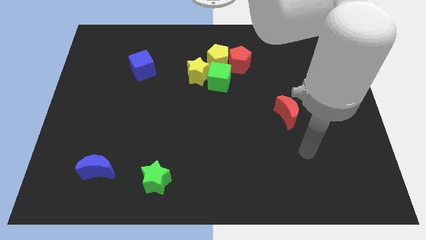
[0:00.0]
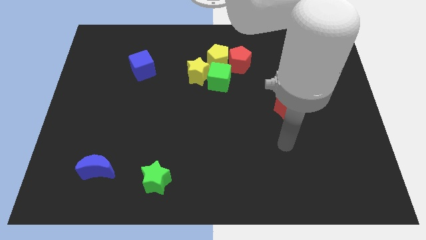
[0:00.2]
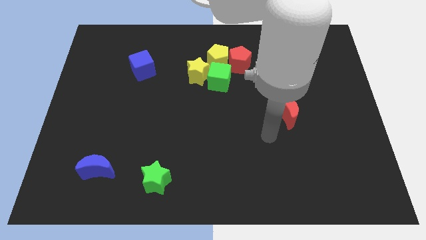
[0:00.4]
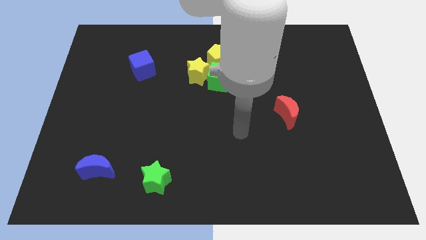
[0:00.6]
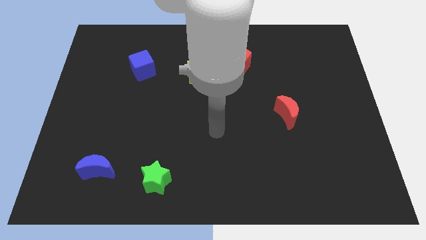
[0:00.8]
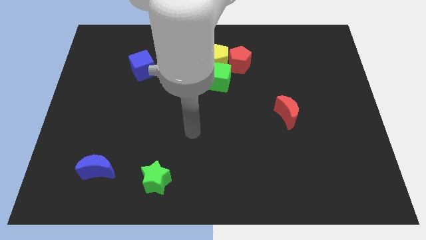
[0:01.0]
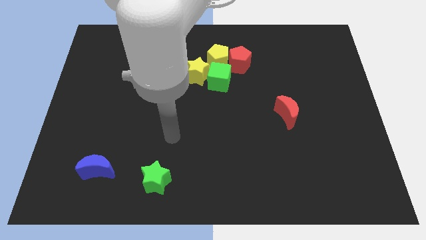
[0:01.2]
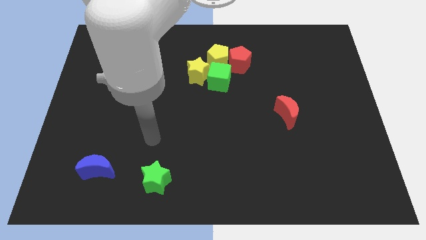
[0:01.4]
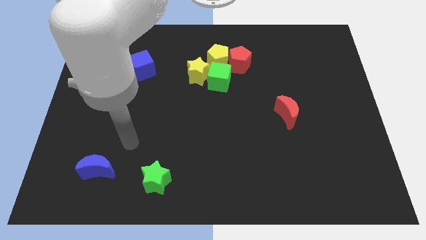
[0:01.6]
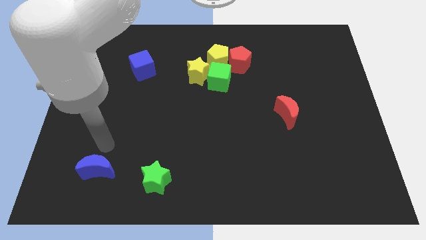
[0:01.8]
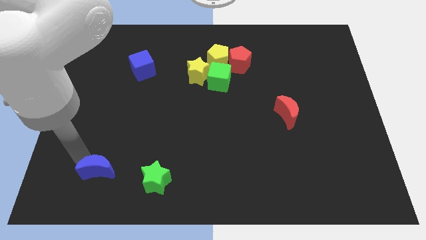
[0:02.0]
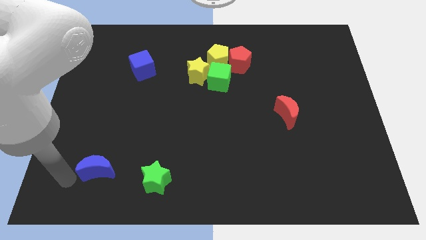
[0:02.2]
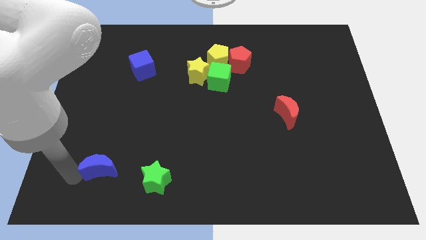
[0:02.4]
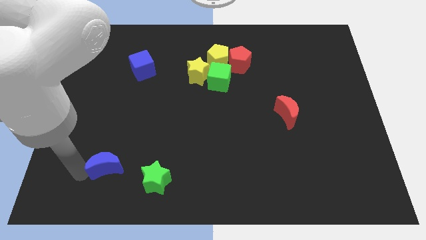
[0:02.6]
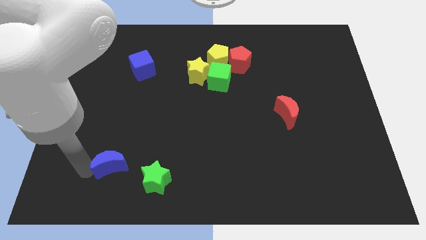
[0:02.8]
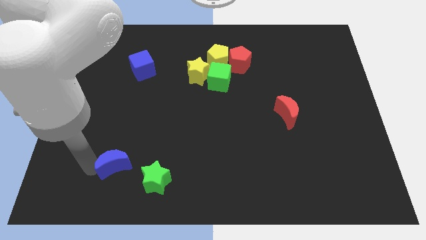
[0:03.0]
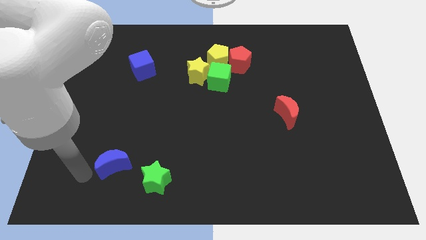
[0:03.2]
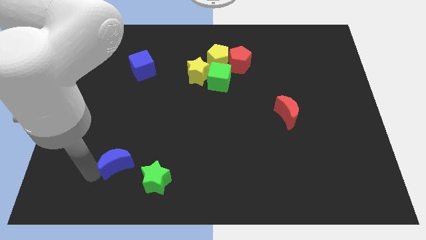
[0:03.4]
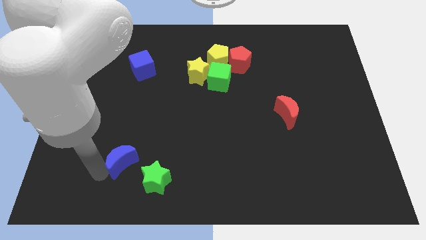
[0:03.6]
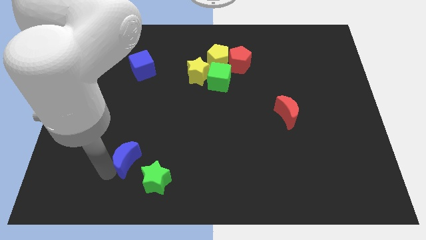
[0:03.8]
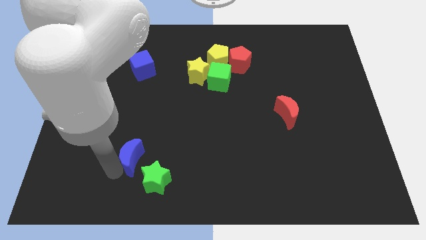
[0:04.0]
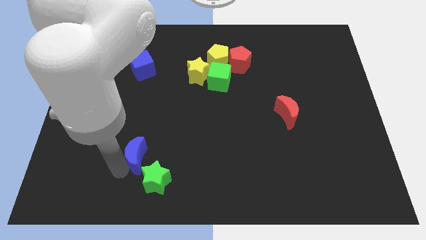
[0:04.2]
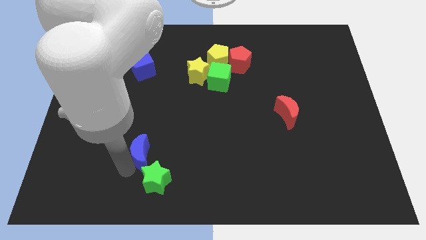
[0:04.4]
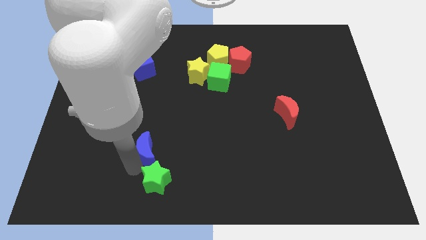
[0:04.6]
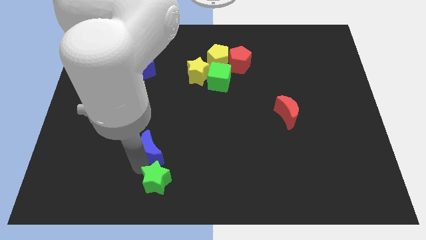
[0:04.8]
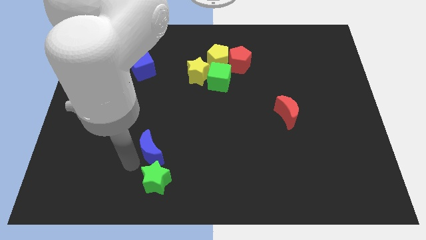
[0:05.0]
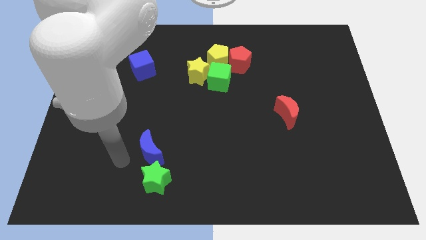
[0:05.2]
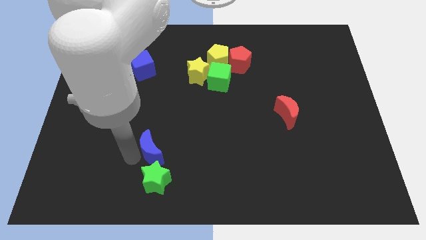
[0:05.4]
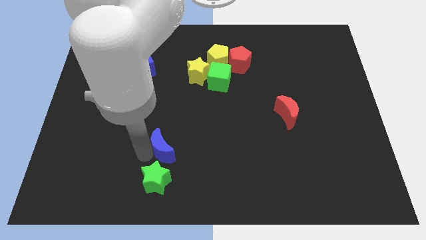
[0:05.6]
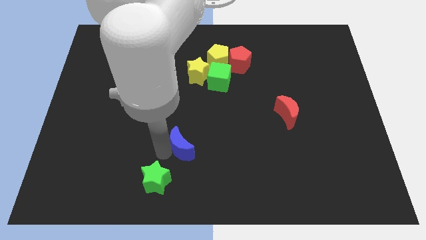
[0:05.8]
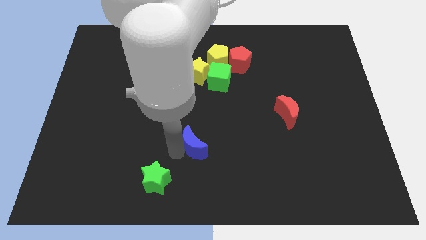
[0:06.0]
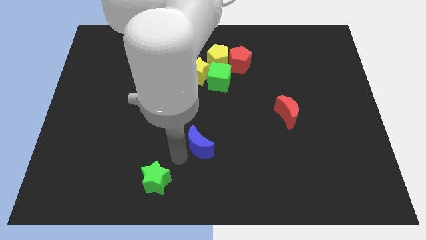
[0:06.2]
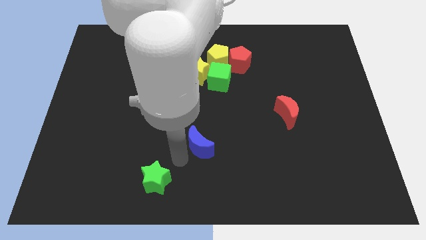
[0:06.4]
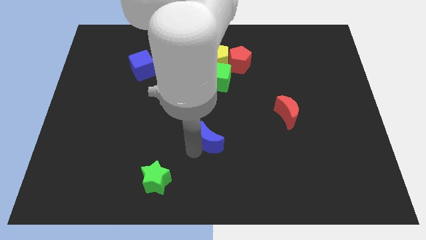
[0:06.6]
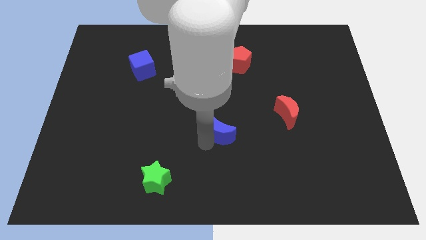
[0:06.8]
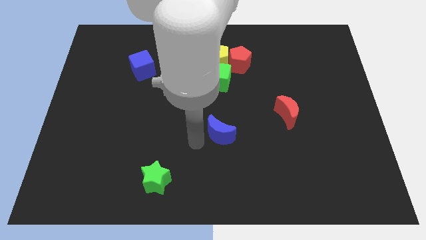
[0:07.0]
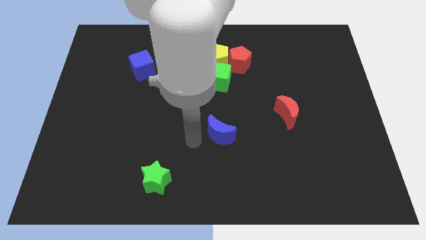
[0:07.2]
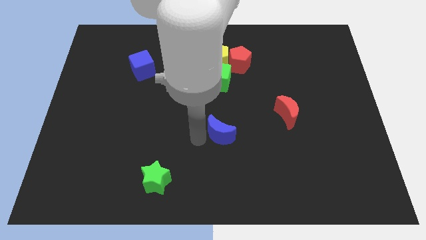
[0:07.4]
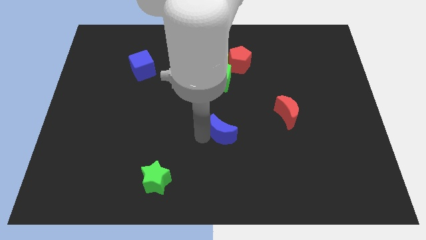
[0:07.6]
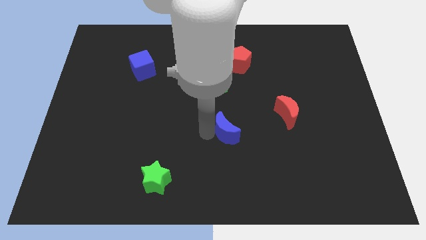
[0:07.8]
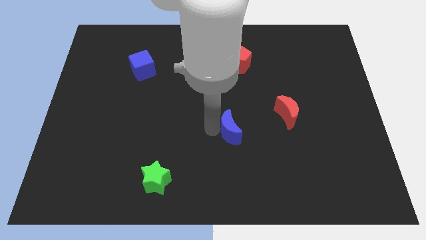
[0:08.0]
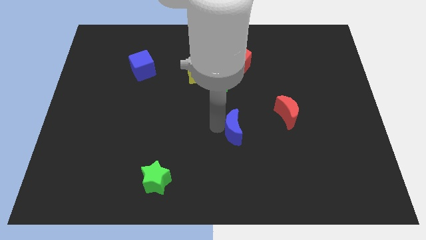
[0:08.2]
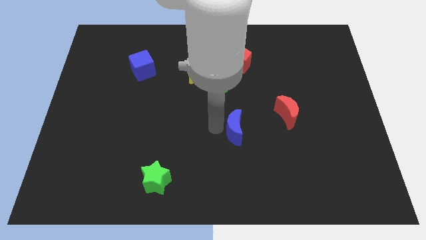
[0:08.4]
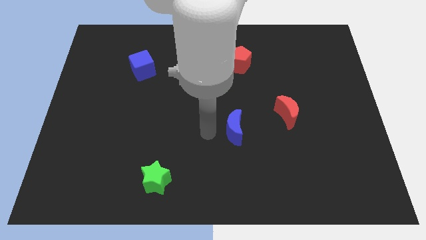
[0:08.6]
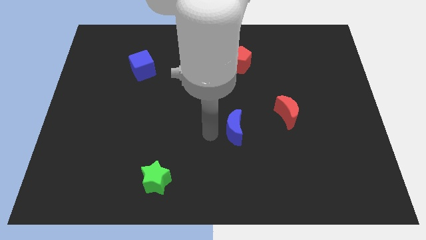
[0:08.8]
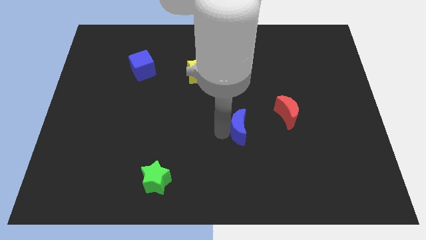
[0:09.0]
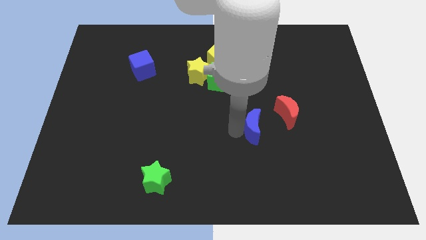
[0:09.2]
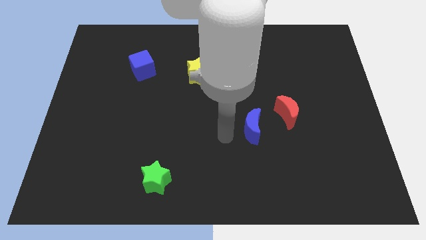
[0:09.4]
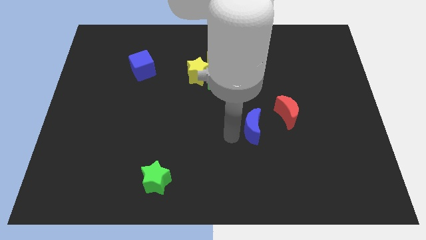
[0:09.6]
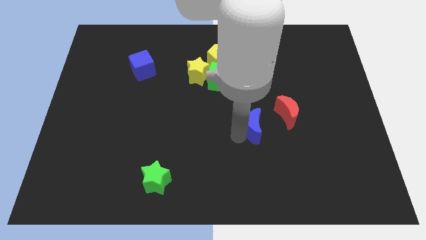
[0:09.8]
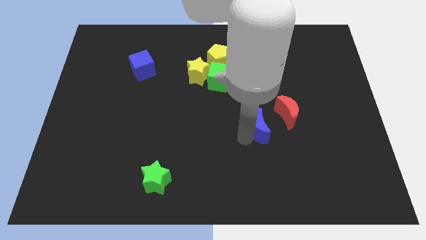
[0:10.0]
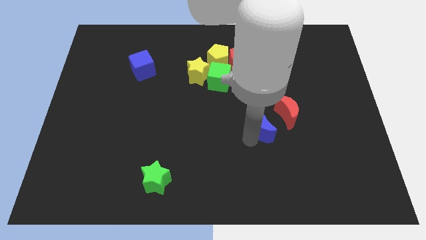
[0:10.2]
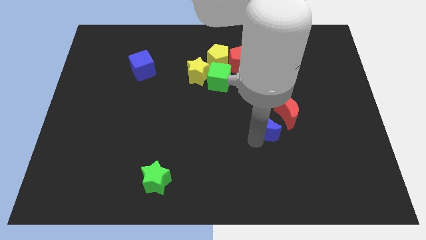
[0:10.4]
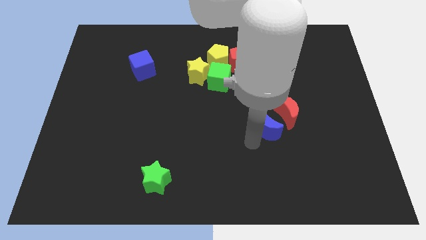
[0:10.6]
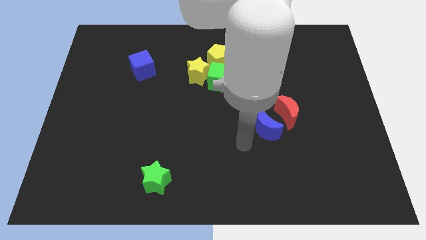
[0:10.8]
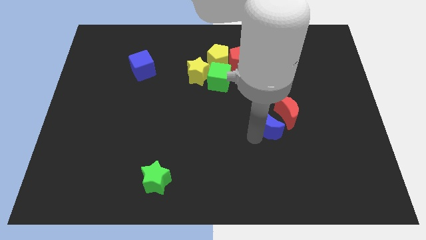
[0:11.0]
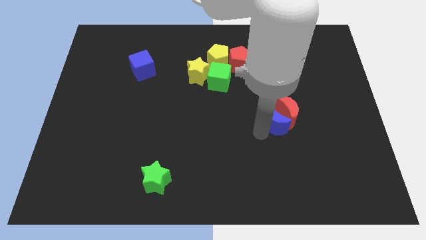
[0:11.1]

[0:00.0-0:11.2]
push the blue moon close to the red moon

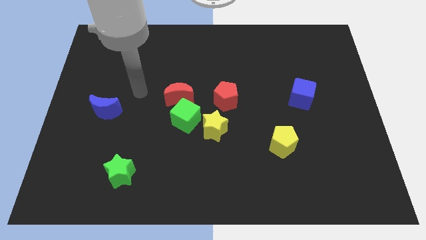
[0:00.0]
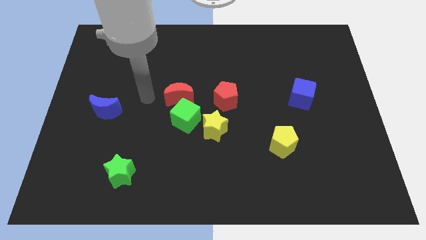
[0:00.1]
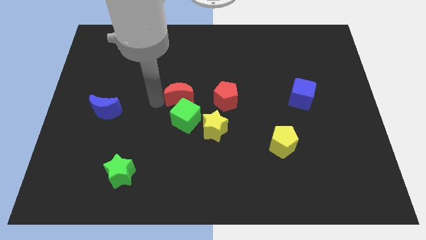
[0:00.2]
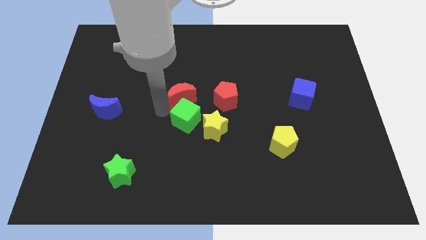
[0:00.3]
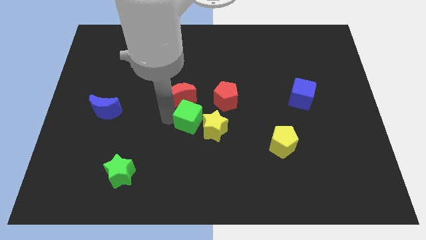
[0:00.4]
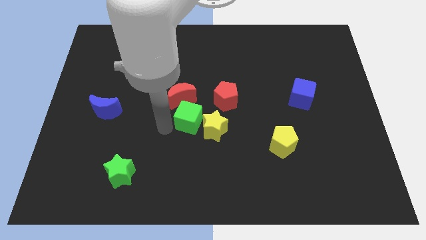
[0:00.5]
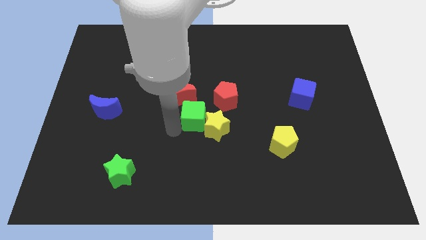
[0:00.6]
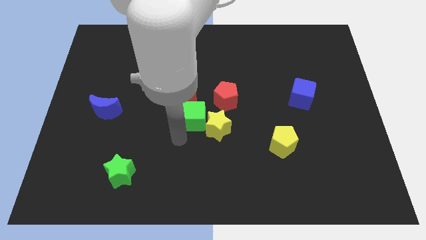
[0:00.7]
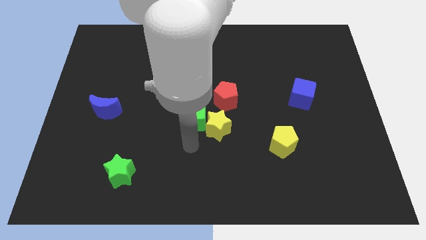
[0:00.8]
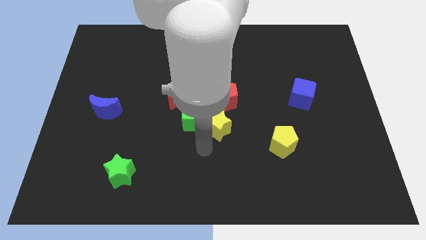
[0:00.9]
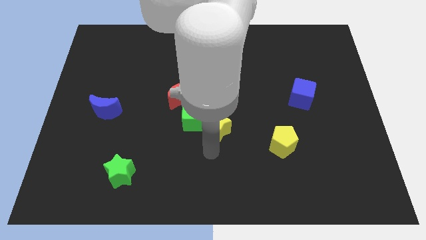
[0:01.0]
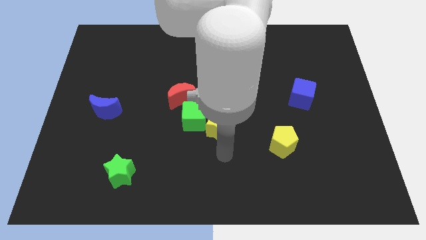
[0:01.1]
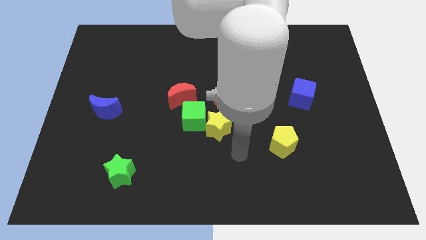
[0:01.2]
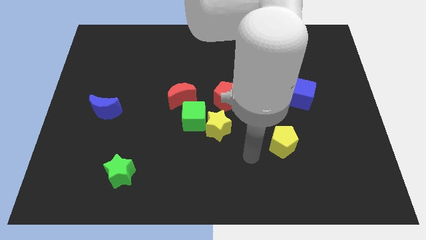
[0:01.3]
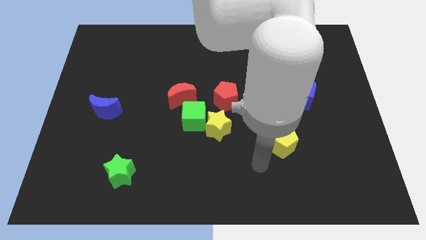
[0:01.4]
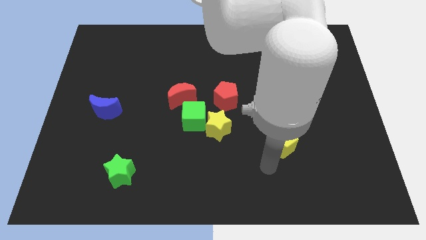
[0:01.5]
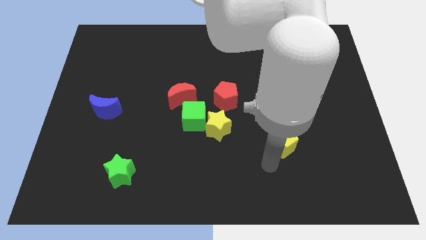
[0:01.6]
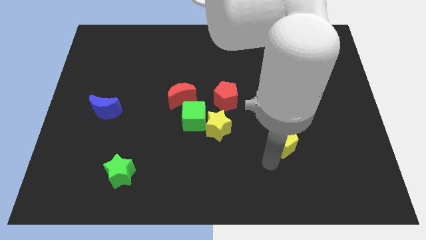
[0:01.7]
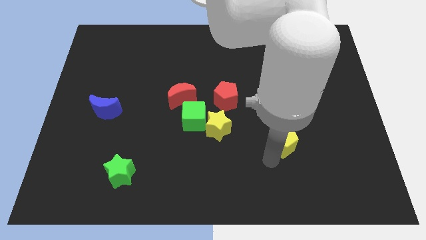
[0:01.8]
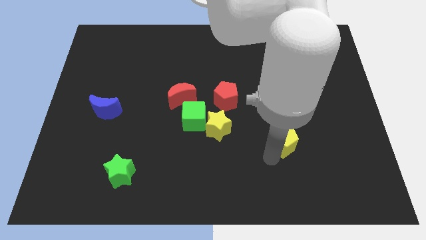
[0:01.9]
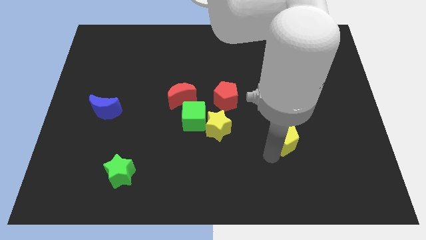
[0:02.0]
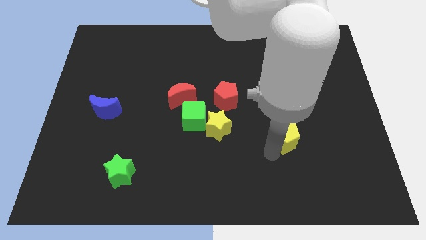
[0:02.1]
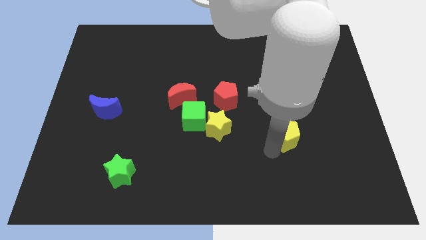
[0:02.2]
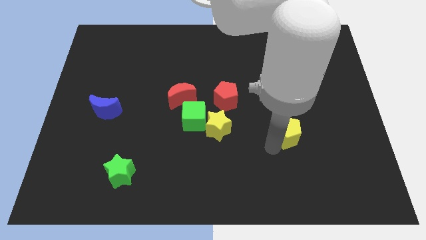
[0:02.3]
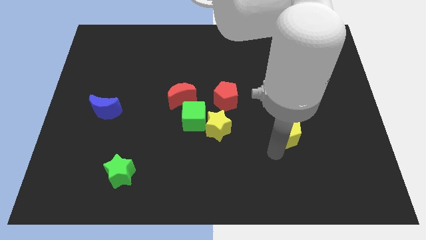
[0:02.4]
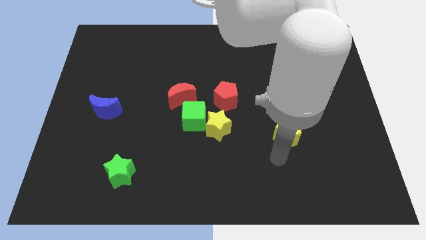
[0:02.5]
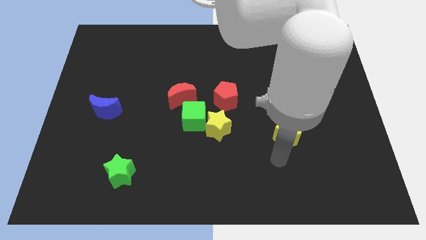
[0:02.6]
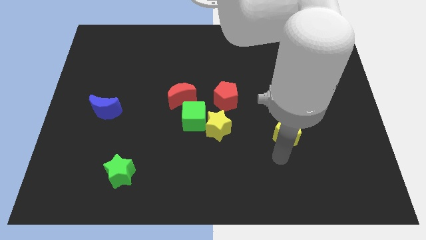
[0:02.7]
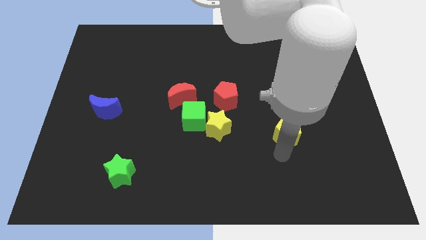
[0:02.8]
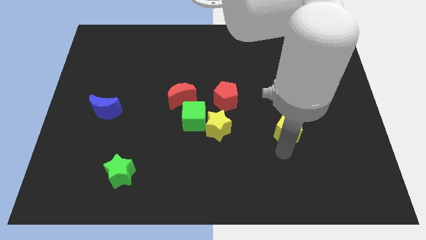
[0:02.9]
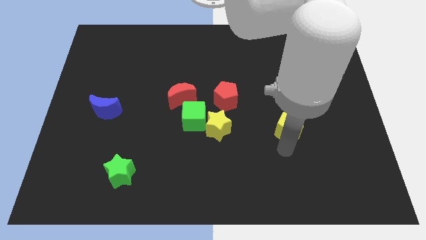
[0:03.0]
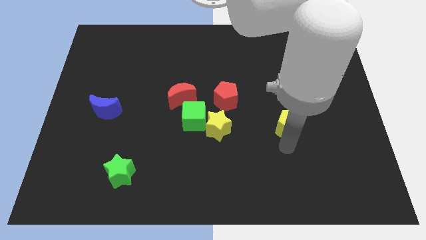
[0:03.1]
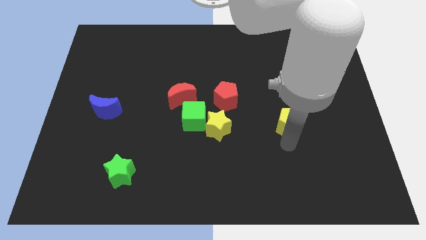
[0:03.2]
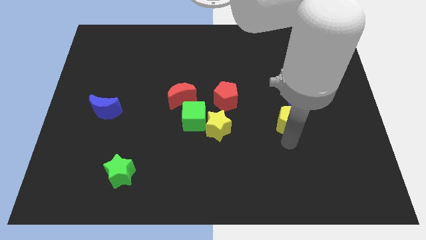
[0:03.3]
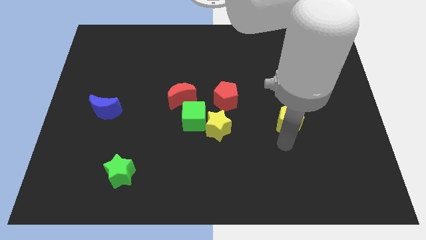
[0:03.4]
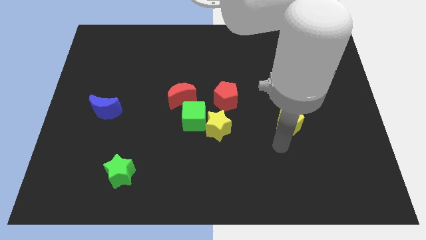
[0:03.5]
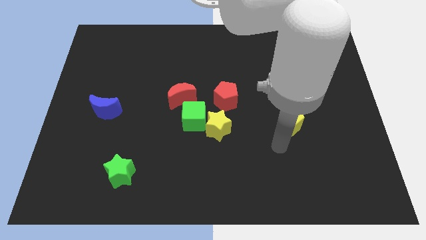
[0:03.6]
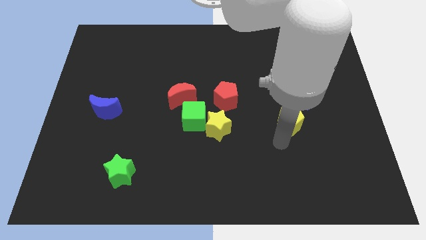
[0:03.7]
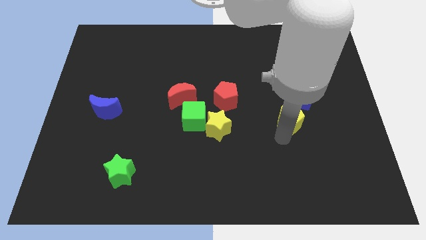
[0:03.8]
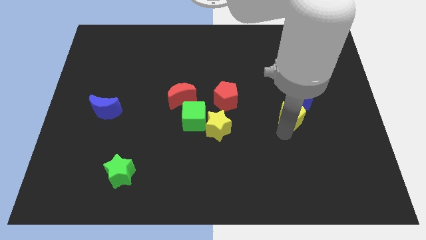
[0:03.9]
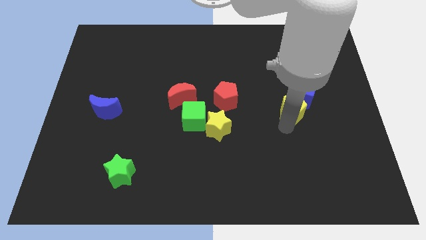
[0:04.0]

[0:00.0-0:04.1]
put the yellow pentagon close to the blue cube
